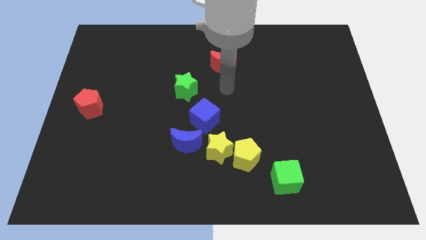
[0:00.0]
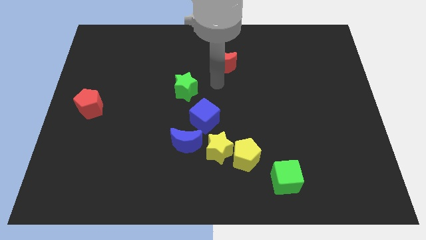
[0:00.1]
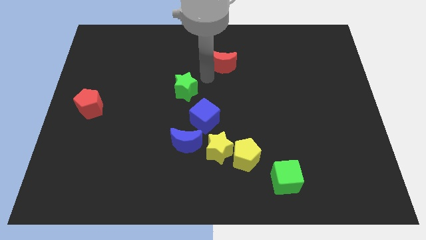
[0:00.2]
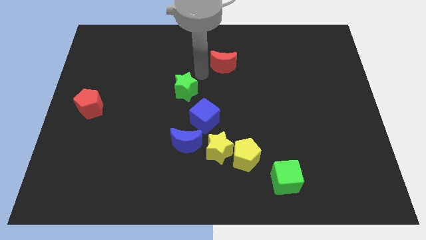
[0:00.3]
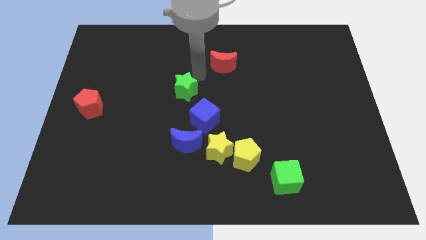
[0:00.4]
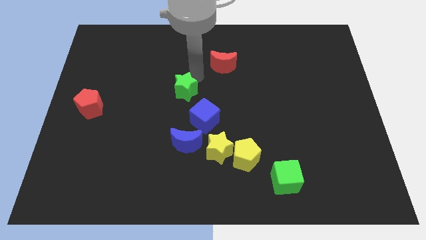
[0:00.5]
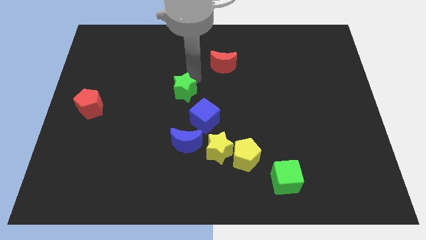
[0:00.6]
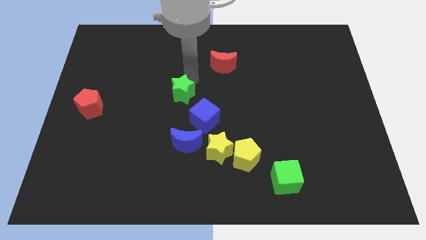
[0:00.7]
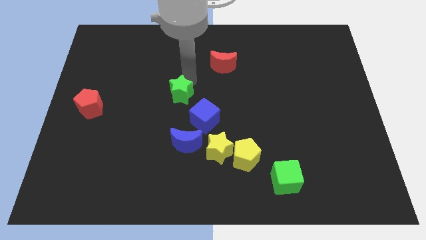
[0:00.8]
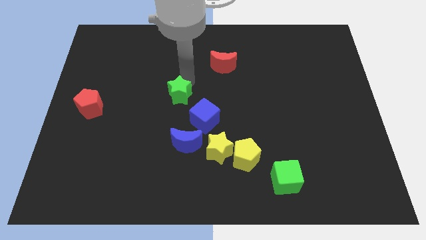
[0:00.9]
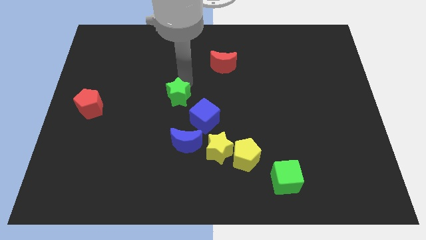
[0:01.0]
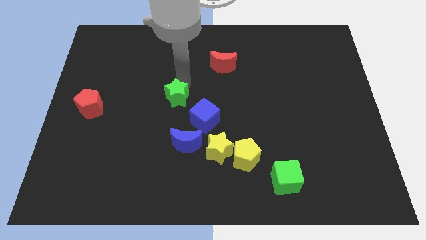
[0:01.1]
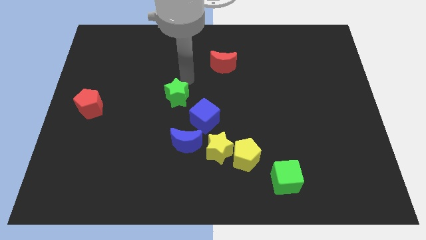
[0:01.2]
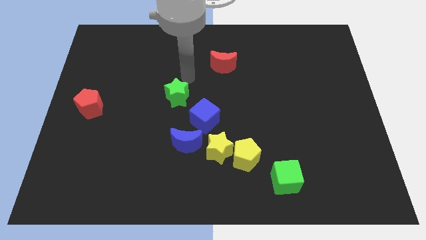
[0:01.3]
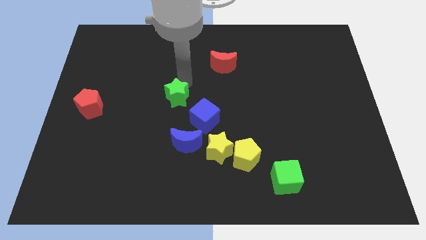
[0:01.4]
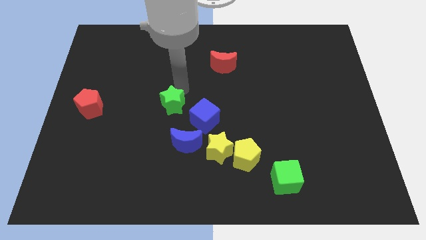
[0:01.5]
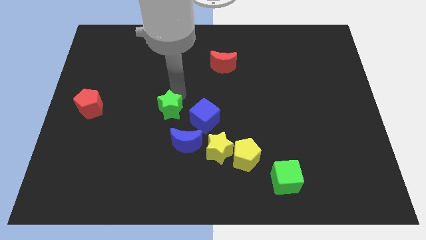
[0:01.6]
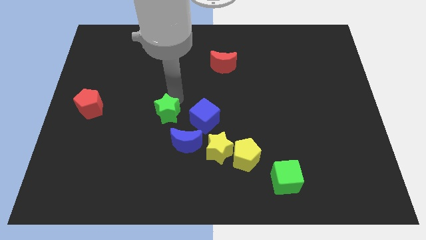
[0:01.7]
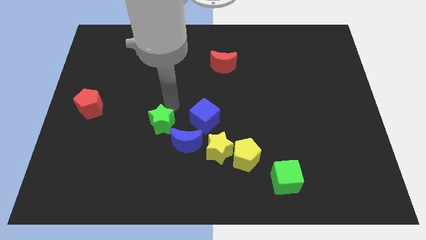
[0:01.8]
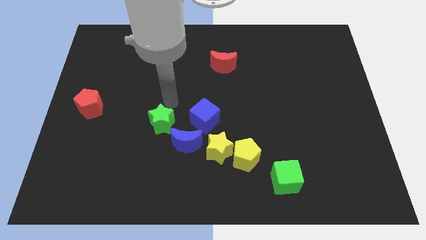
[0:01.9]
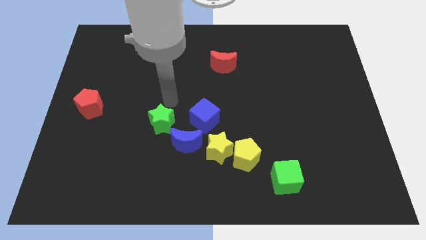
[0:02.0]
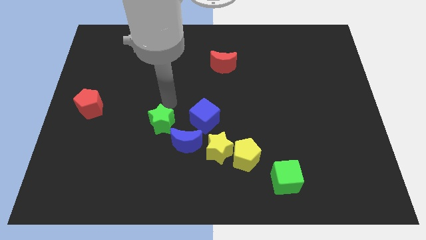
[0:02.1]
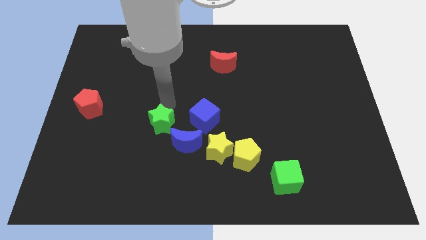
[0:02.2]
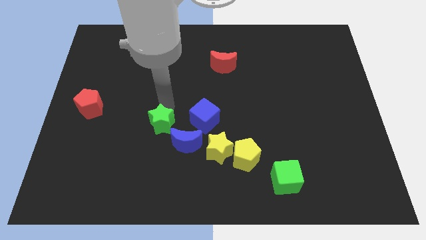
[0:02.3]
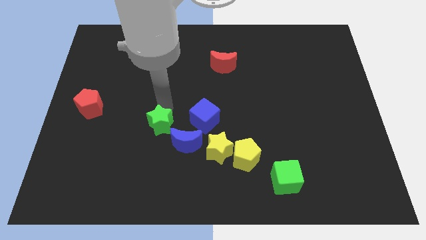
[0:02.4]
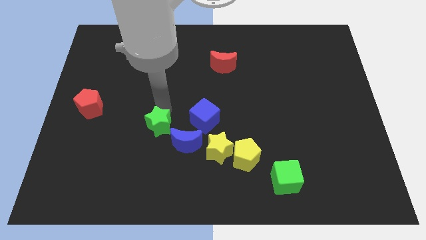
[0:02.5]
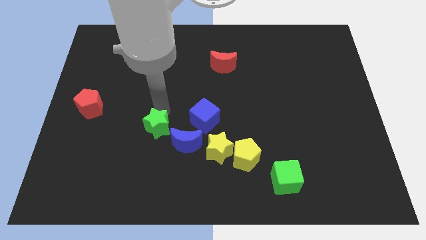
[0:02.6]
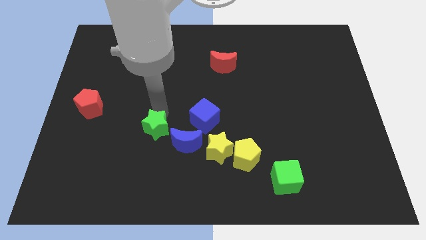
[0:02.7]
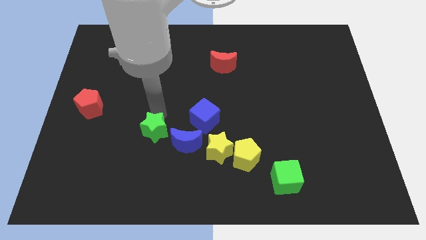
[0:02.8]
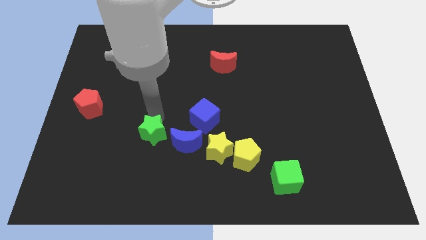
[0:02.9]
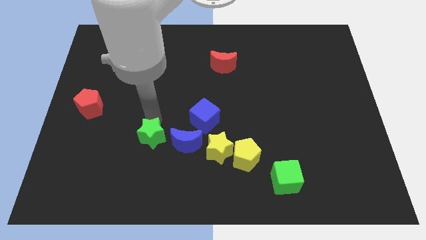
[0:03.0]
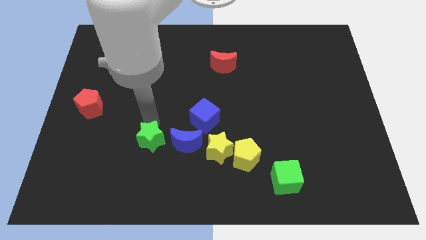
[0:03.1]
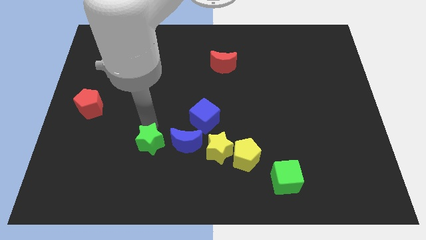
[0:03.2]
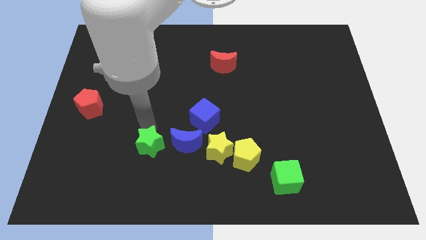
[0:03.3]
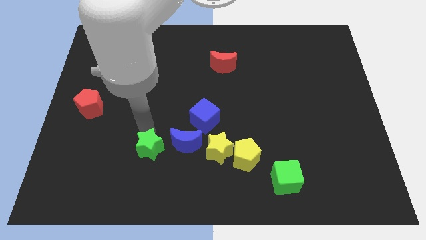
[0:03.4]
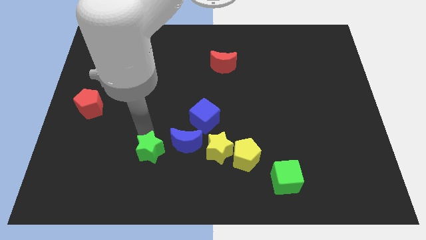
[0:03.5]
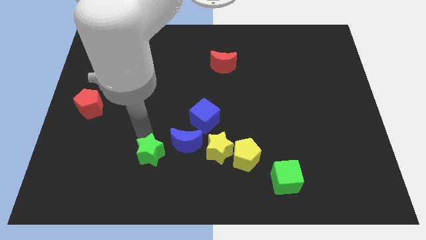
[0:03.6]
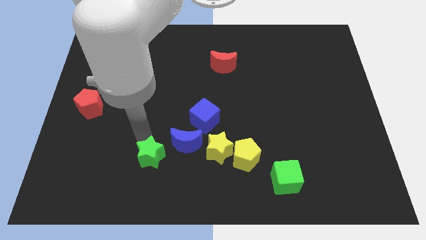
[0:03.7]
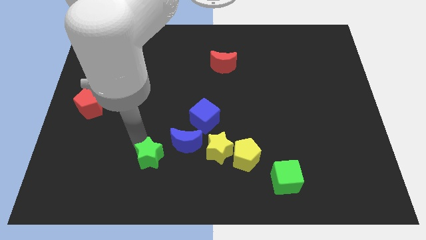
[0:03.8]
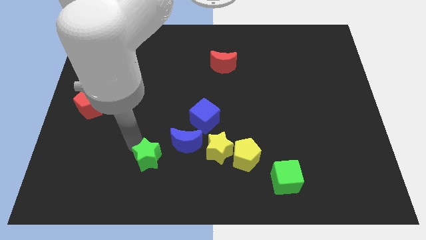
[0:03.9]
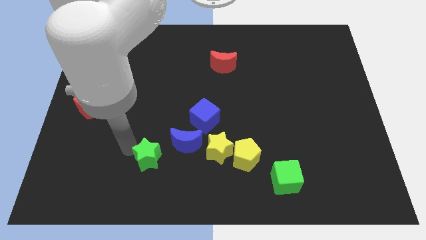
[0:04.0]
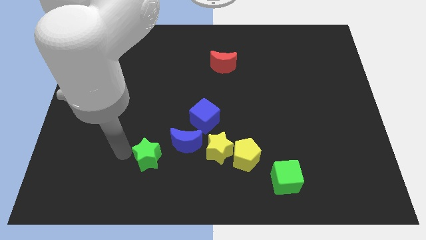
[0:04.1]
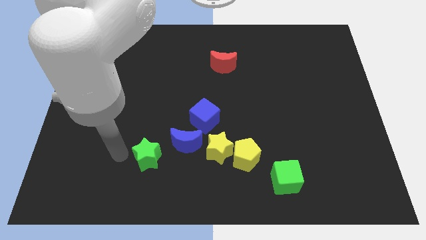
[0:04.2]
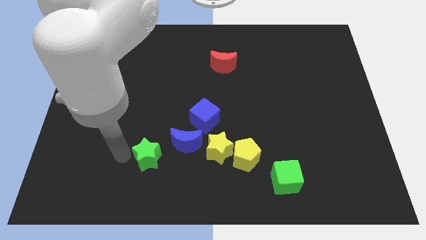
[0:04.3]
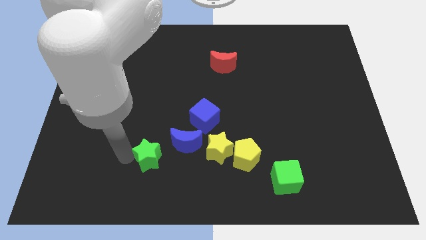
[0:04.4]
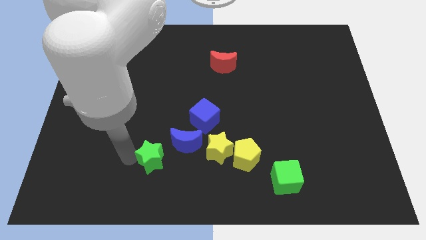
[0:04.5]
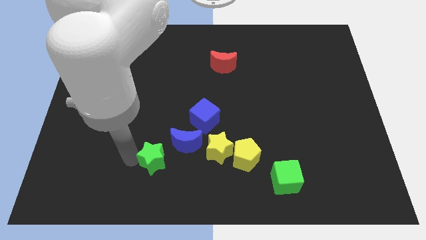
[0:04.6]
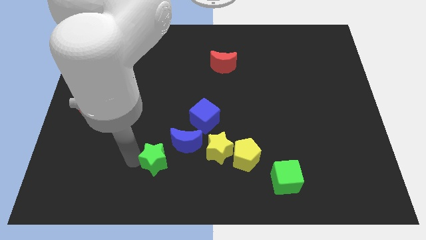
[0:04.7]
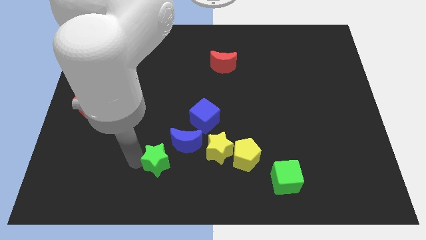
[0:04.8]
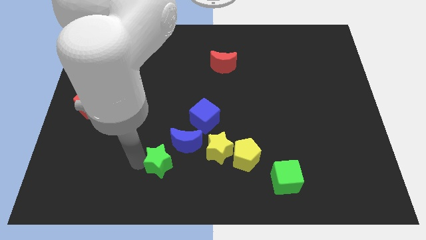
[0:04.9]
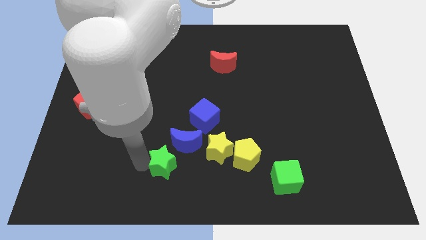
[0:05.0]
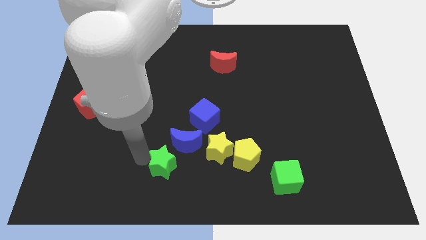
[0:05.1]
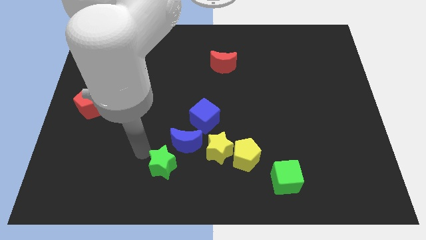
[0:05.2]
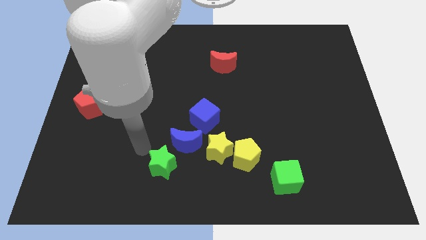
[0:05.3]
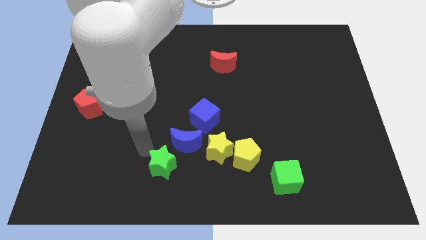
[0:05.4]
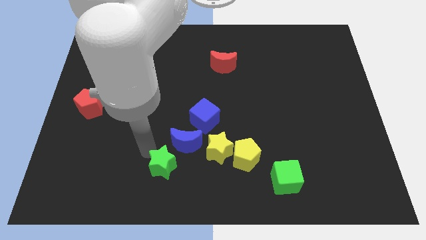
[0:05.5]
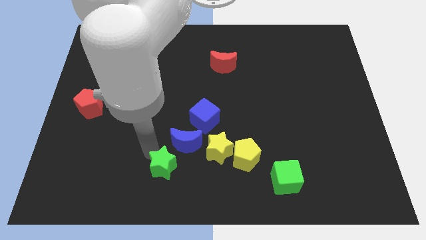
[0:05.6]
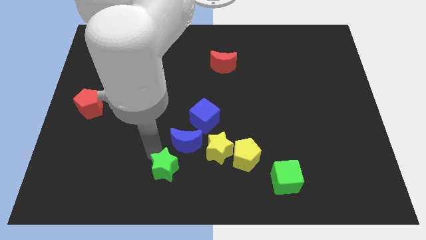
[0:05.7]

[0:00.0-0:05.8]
move the green star to the bottom side

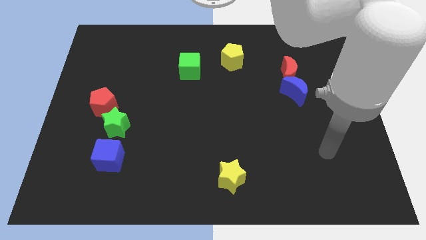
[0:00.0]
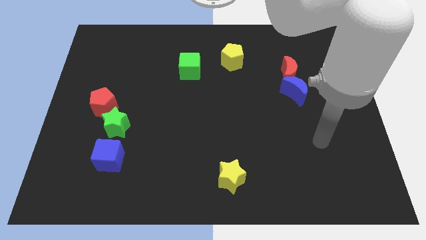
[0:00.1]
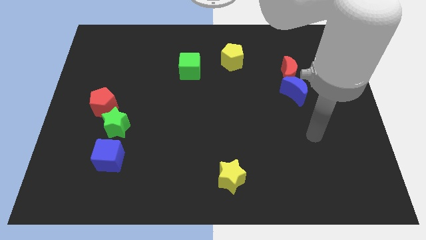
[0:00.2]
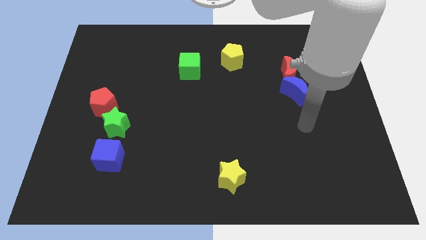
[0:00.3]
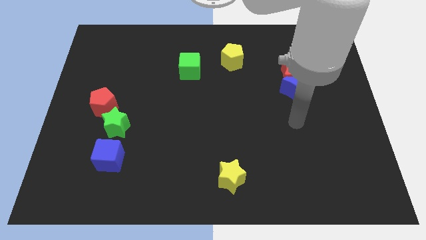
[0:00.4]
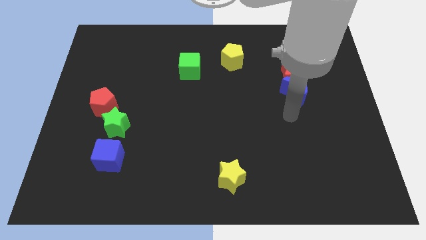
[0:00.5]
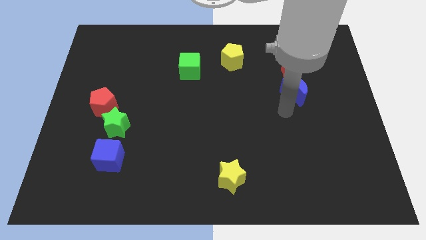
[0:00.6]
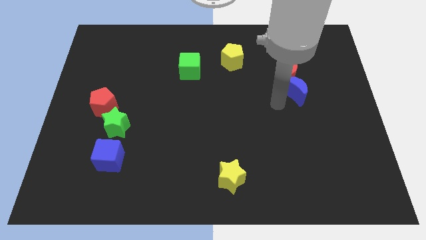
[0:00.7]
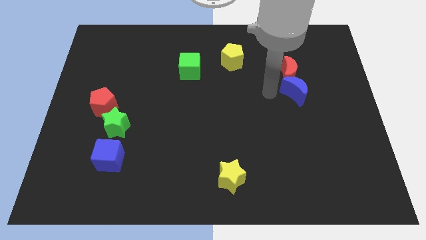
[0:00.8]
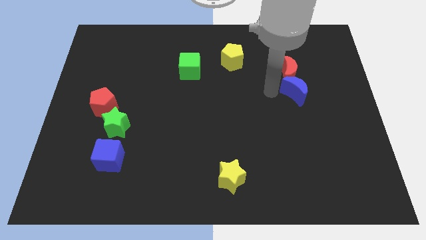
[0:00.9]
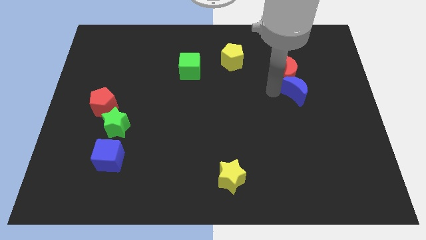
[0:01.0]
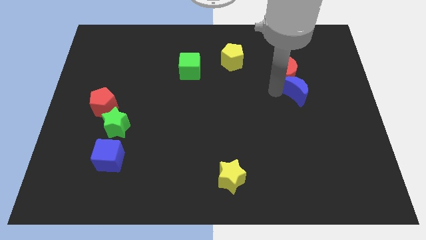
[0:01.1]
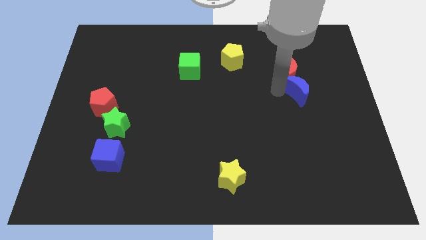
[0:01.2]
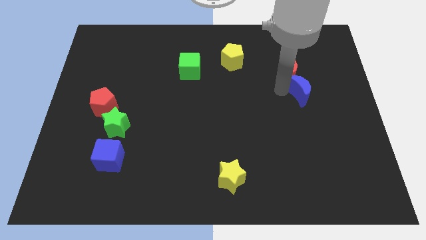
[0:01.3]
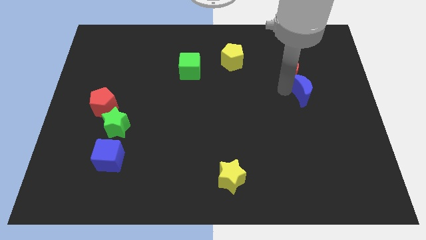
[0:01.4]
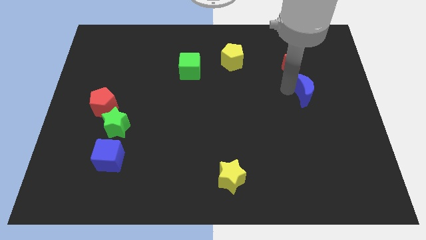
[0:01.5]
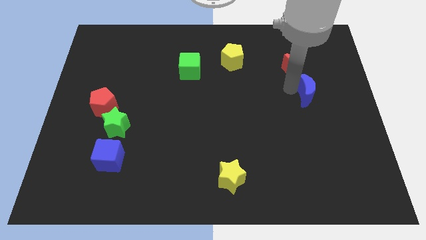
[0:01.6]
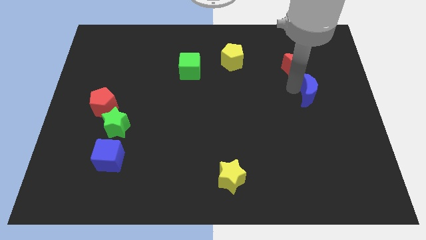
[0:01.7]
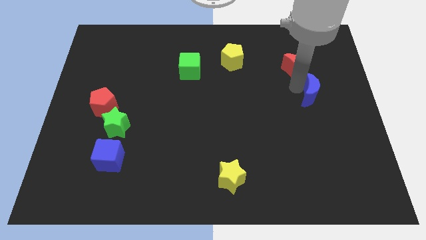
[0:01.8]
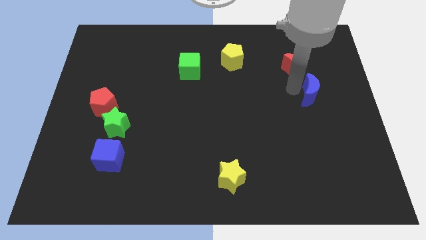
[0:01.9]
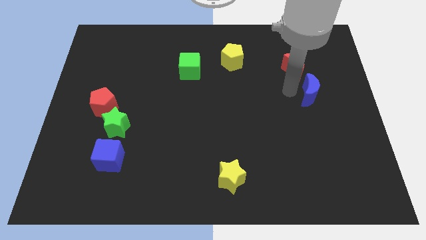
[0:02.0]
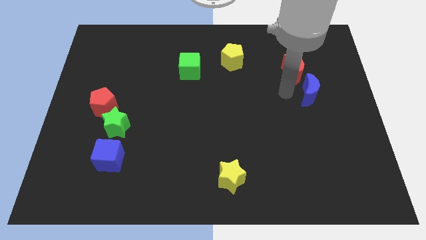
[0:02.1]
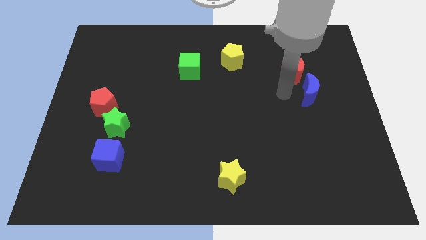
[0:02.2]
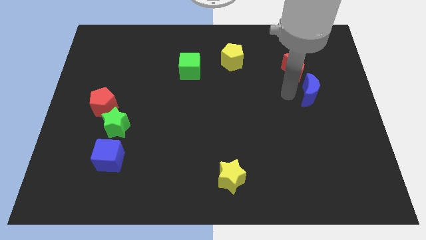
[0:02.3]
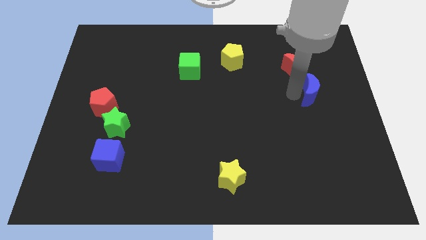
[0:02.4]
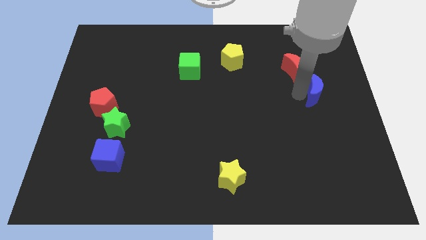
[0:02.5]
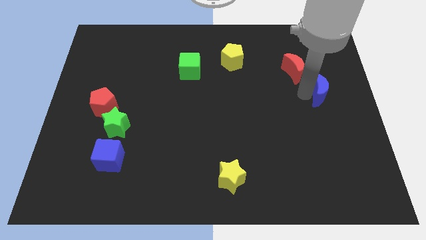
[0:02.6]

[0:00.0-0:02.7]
put the blue moon to the right side of the board
